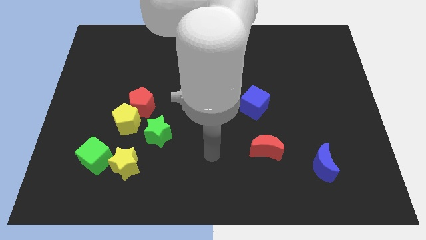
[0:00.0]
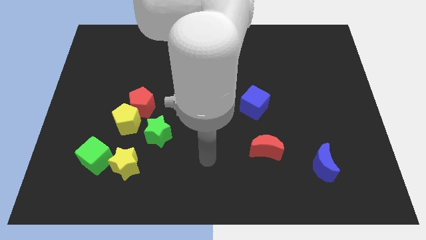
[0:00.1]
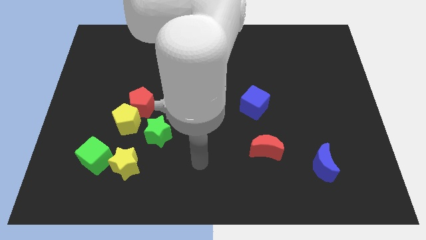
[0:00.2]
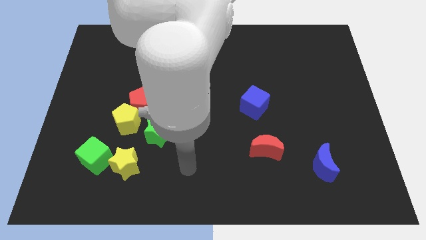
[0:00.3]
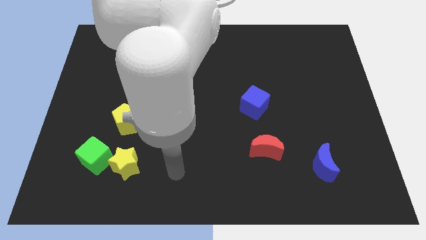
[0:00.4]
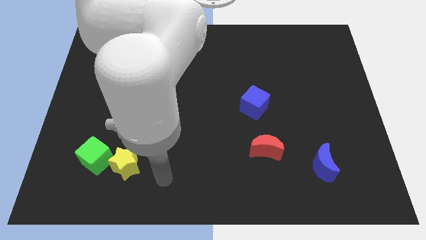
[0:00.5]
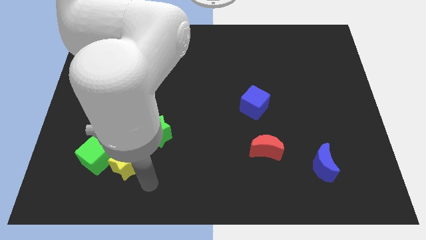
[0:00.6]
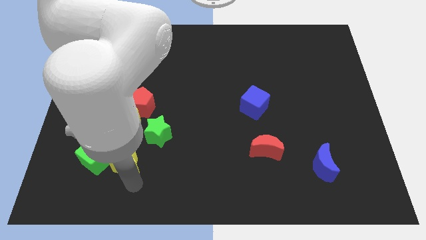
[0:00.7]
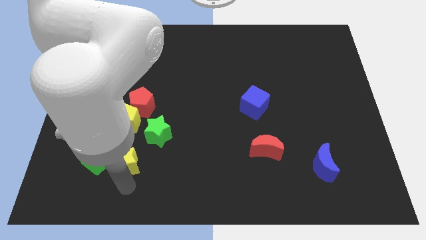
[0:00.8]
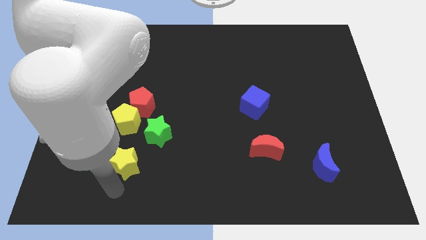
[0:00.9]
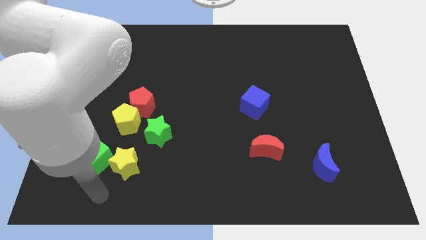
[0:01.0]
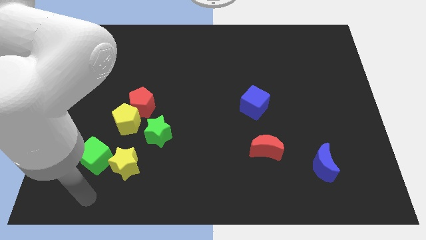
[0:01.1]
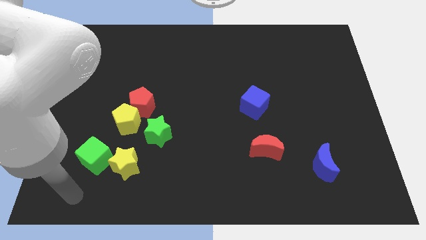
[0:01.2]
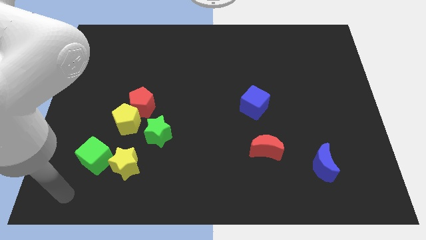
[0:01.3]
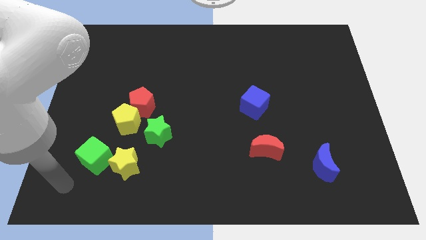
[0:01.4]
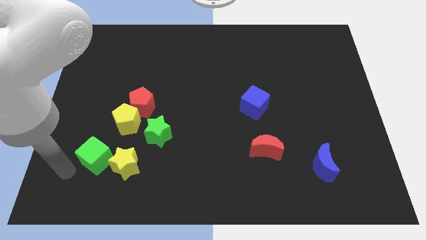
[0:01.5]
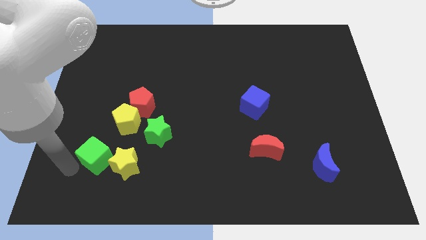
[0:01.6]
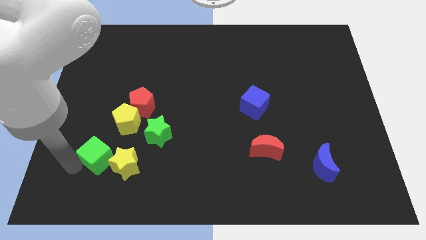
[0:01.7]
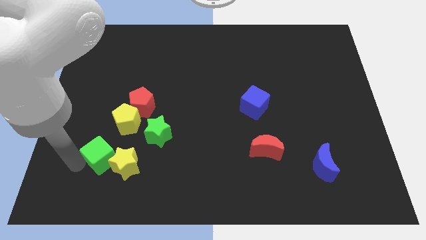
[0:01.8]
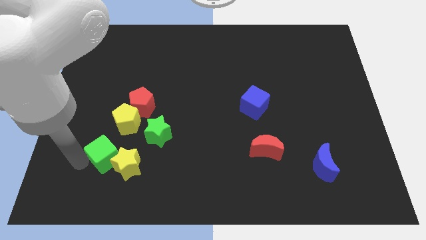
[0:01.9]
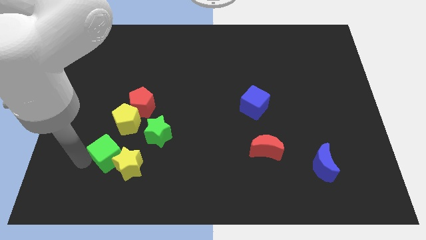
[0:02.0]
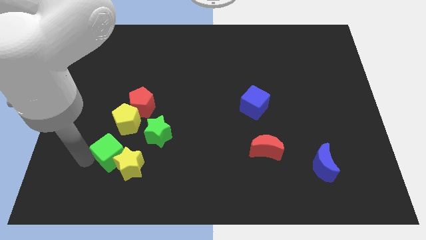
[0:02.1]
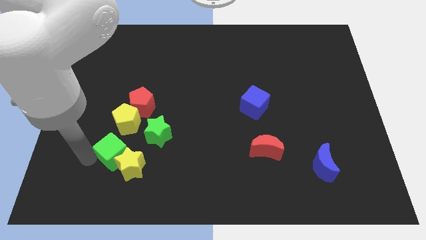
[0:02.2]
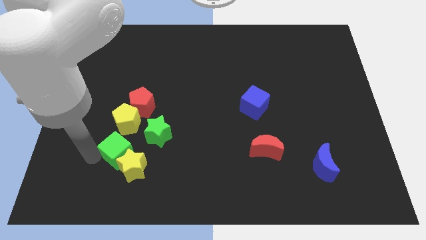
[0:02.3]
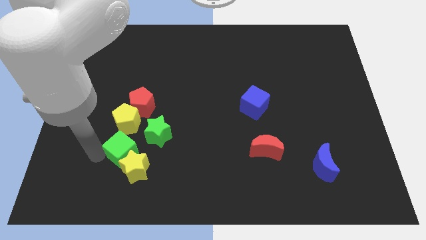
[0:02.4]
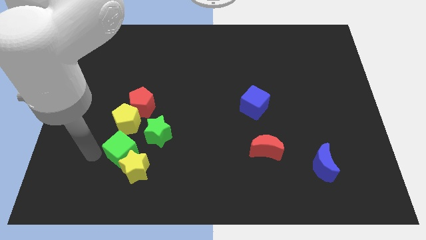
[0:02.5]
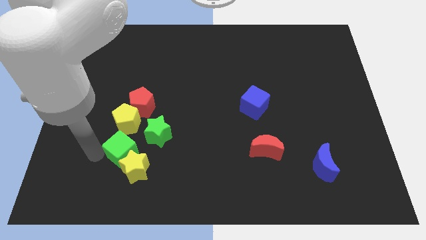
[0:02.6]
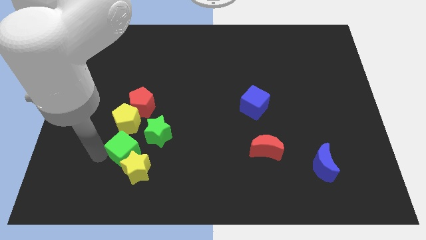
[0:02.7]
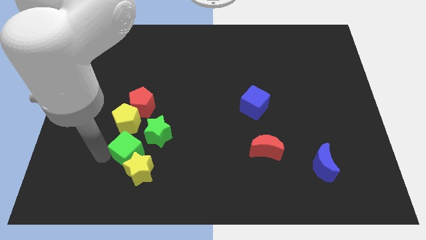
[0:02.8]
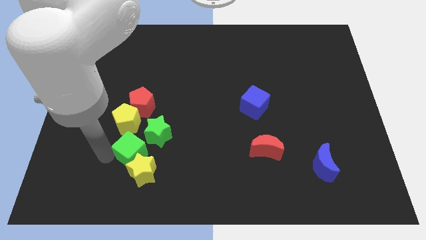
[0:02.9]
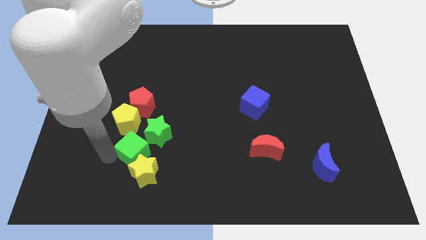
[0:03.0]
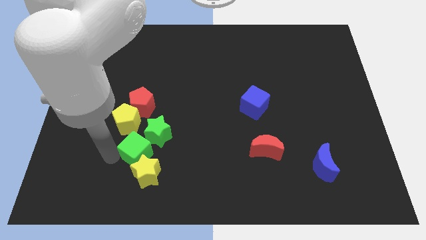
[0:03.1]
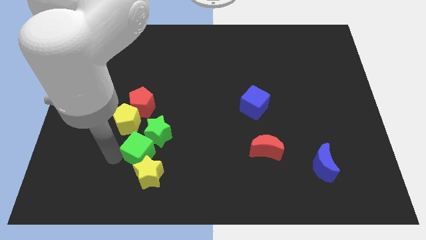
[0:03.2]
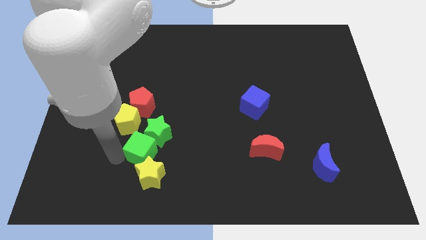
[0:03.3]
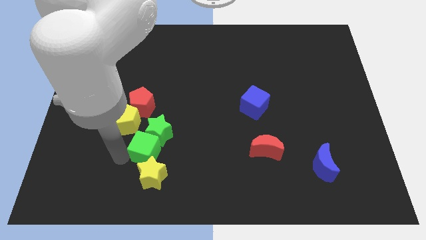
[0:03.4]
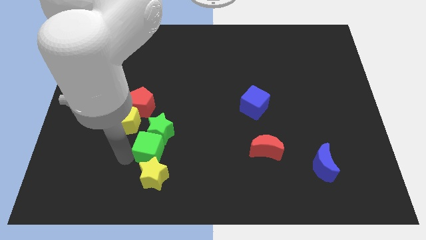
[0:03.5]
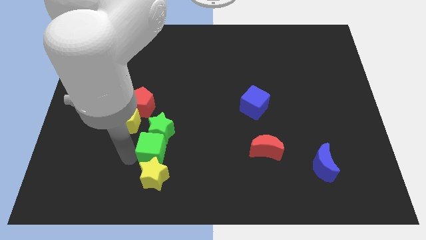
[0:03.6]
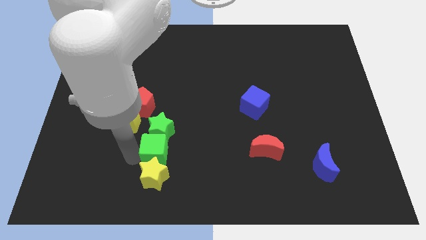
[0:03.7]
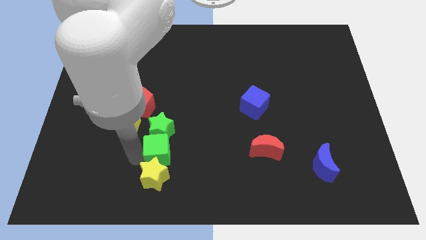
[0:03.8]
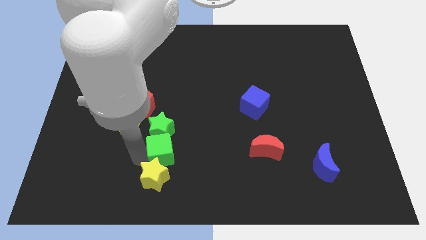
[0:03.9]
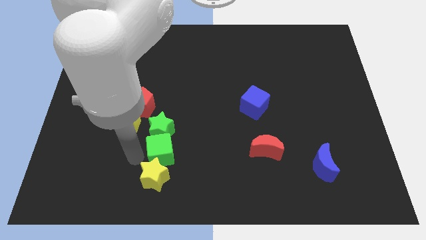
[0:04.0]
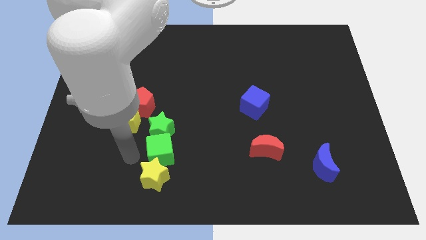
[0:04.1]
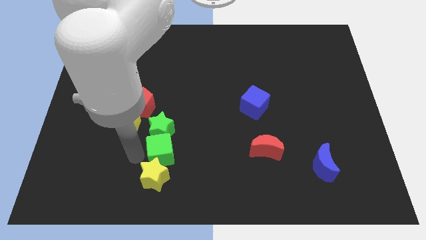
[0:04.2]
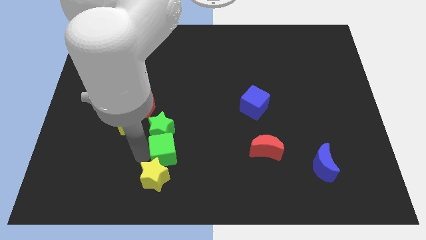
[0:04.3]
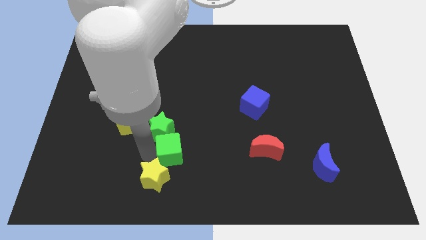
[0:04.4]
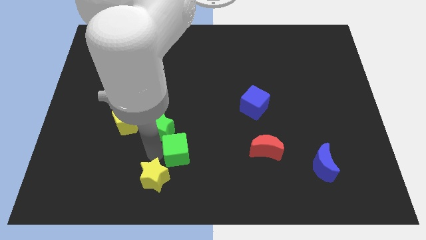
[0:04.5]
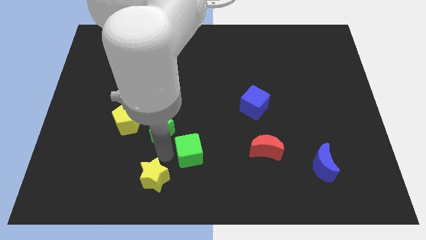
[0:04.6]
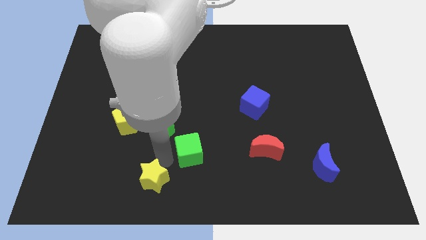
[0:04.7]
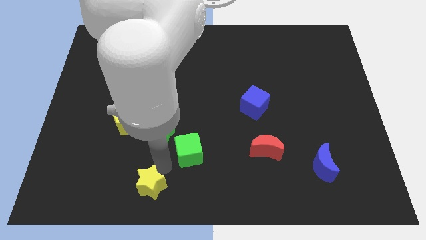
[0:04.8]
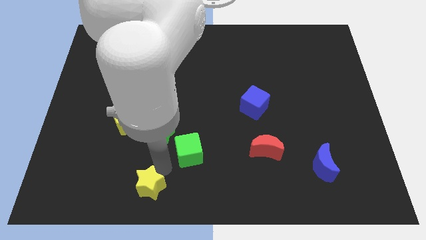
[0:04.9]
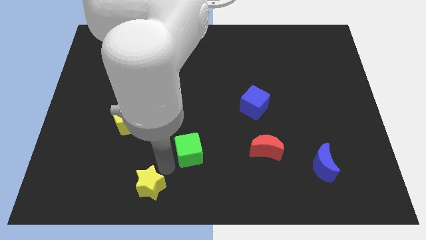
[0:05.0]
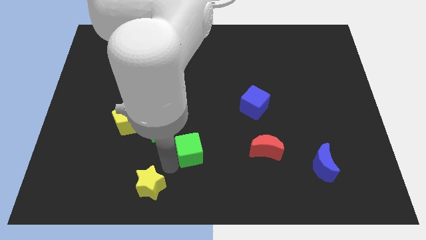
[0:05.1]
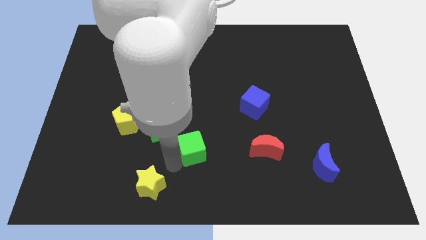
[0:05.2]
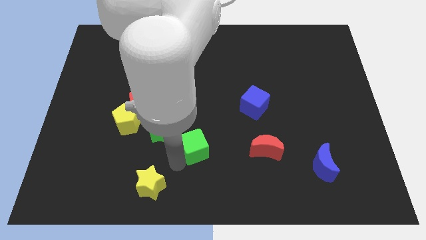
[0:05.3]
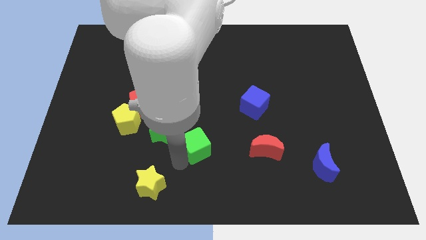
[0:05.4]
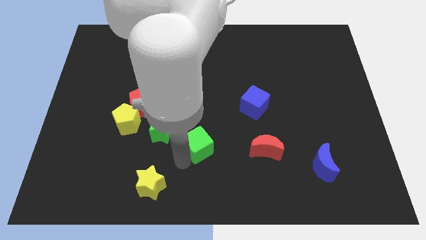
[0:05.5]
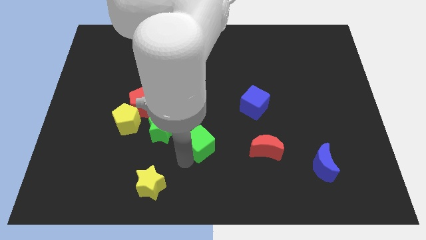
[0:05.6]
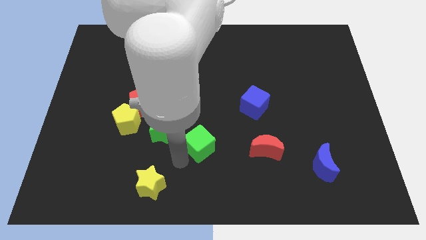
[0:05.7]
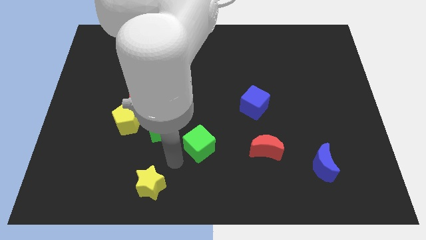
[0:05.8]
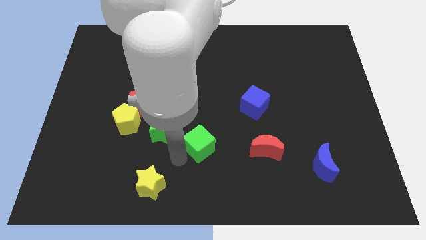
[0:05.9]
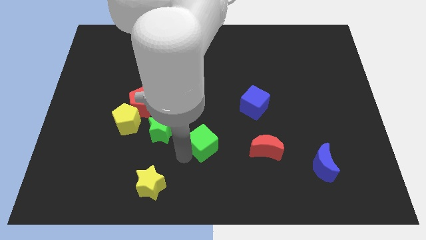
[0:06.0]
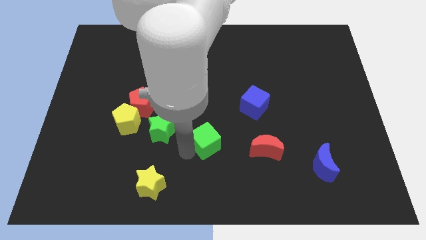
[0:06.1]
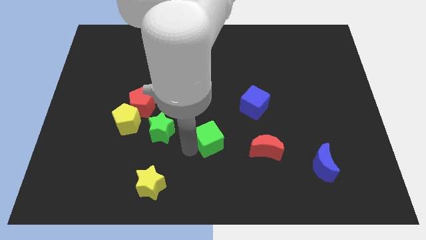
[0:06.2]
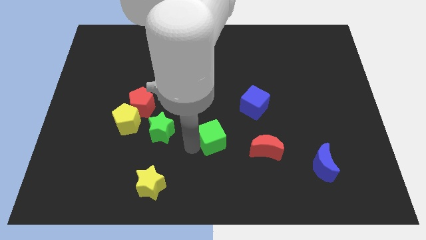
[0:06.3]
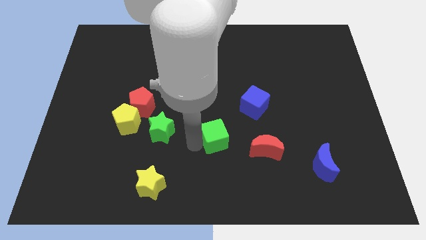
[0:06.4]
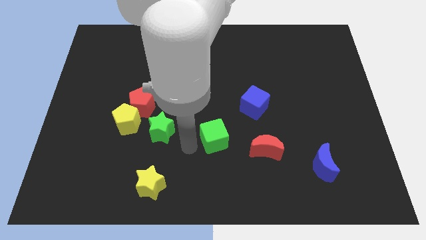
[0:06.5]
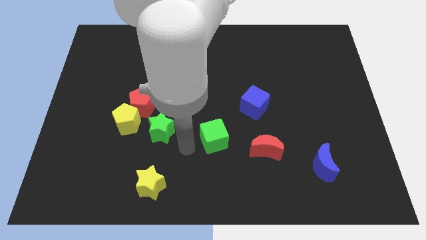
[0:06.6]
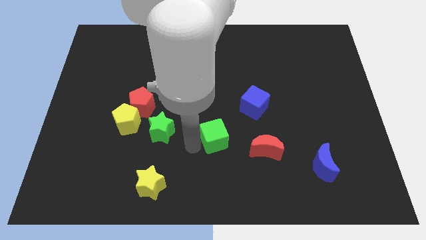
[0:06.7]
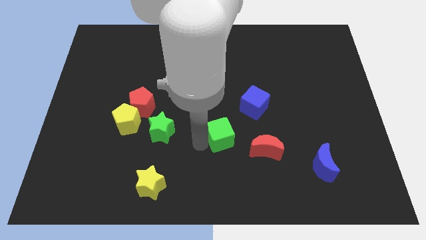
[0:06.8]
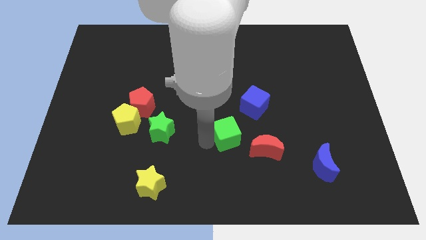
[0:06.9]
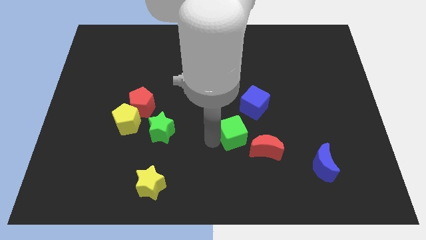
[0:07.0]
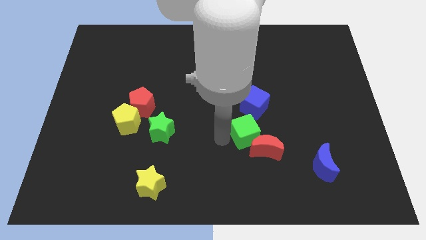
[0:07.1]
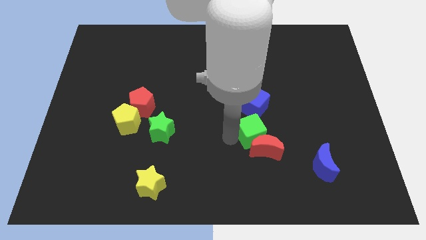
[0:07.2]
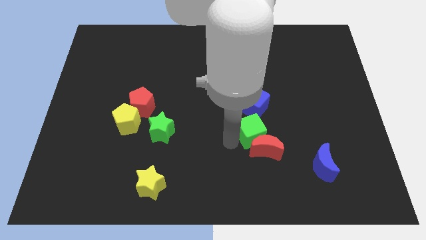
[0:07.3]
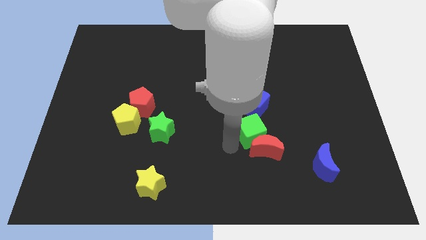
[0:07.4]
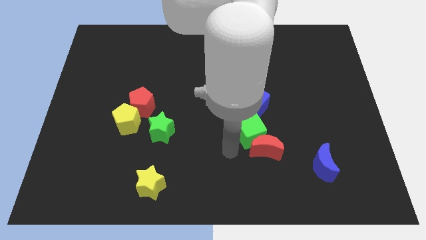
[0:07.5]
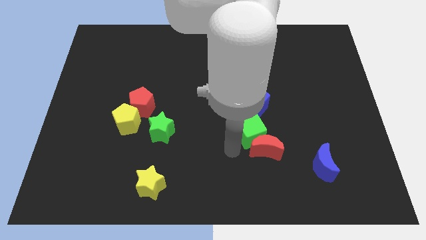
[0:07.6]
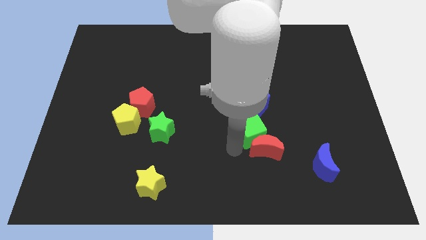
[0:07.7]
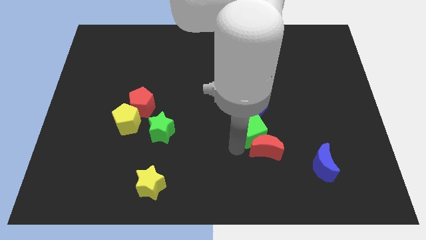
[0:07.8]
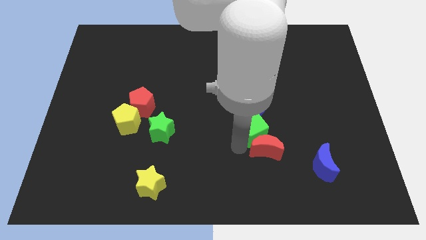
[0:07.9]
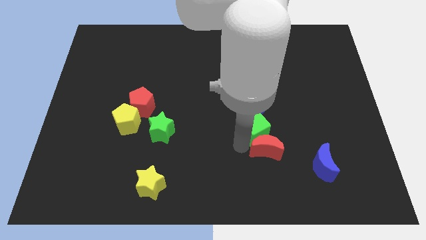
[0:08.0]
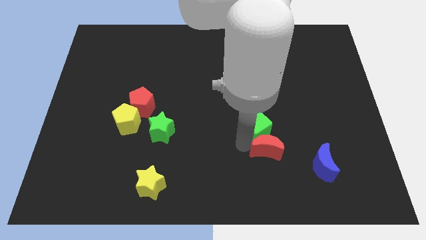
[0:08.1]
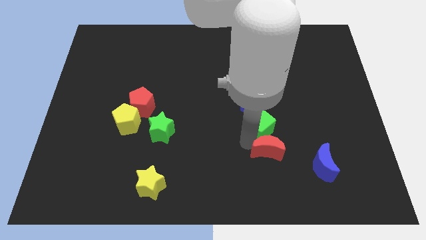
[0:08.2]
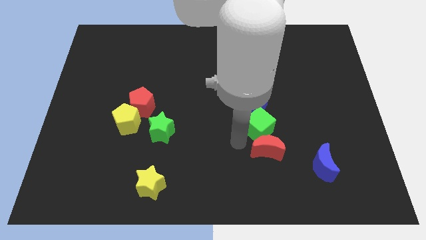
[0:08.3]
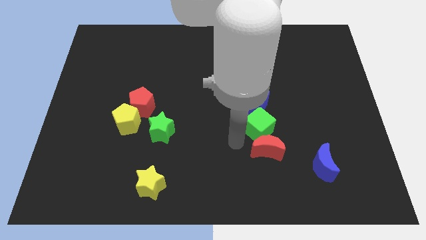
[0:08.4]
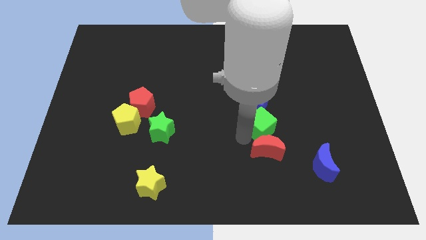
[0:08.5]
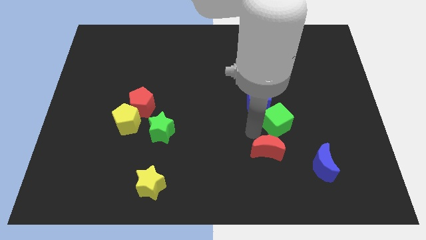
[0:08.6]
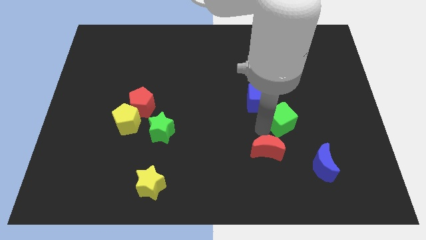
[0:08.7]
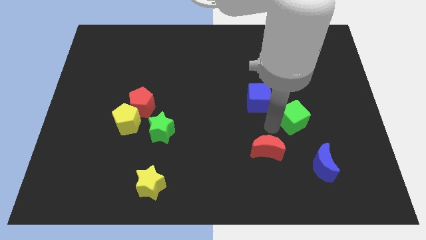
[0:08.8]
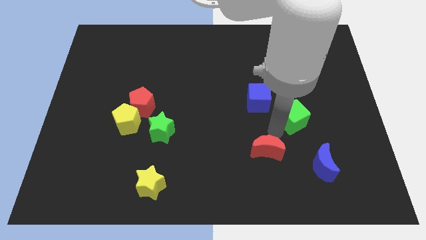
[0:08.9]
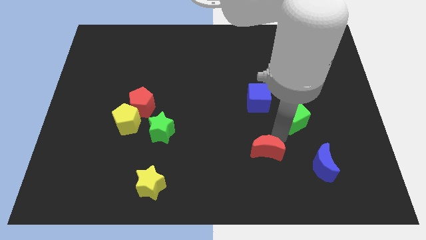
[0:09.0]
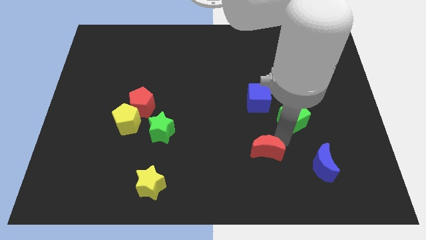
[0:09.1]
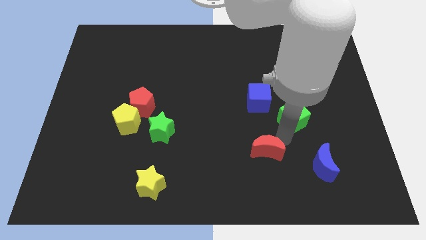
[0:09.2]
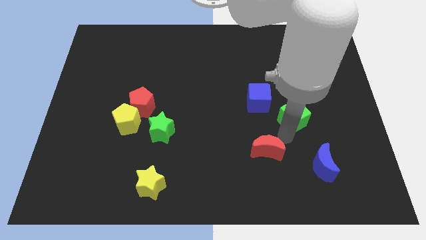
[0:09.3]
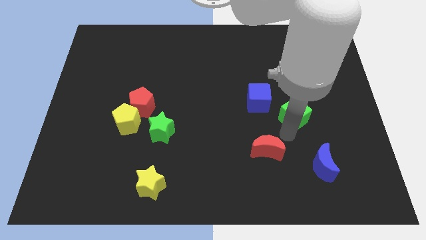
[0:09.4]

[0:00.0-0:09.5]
put the green cube right of the blue cube
